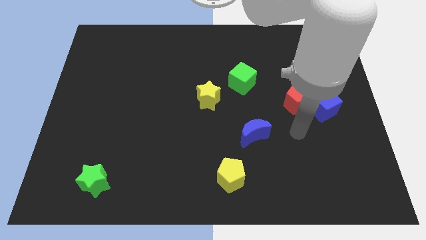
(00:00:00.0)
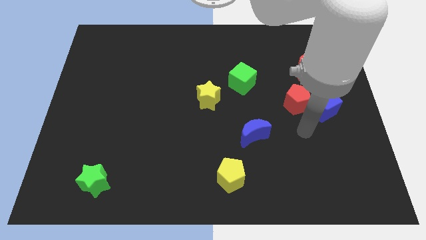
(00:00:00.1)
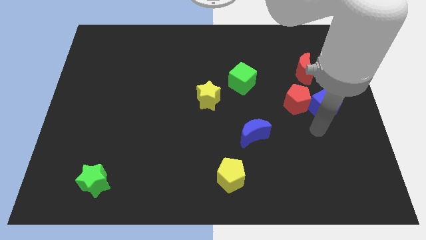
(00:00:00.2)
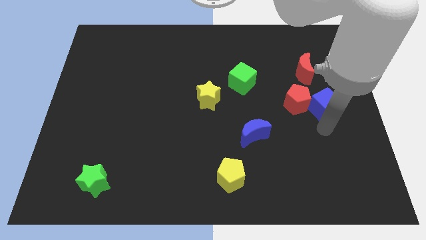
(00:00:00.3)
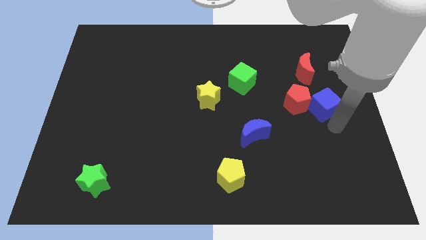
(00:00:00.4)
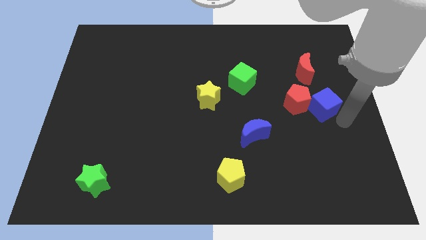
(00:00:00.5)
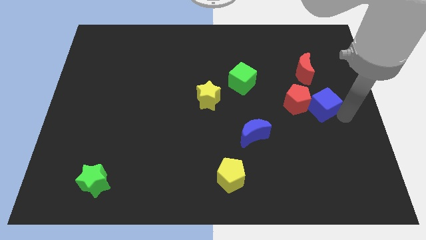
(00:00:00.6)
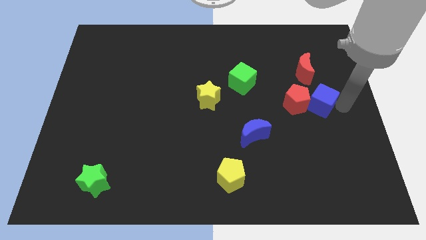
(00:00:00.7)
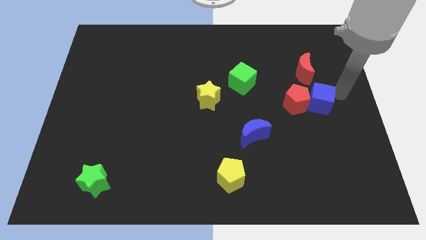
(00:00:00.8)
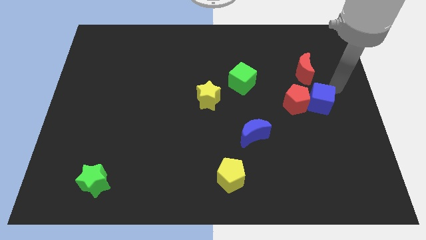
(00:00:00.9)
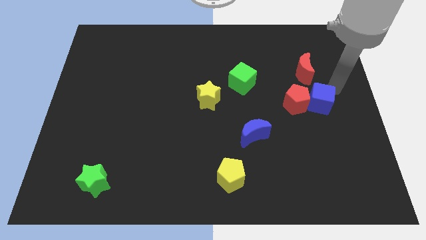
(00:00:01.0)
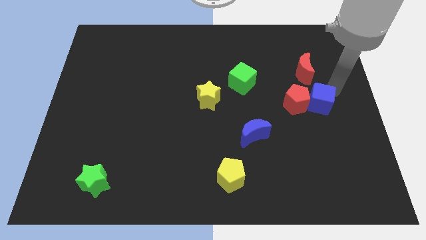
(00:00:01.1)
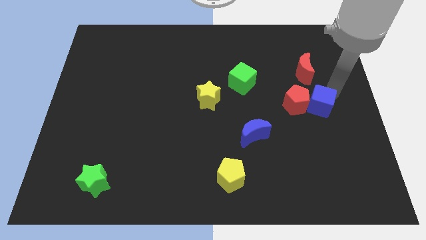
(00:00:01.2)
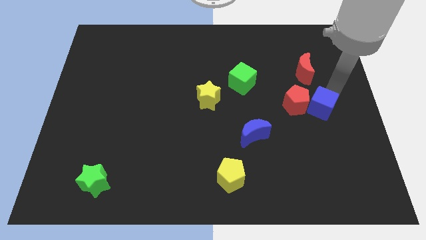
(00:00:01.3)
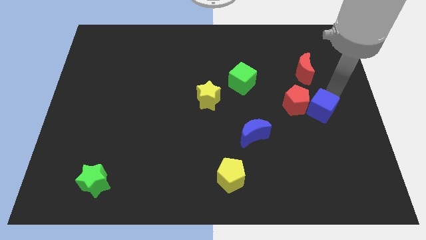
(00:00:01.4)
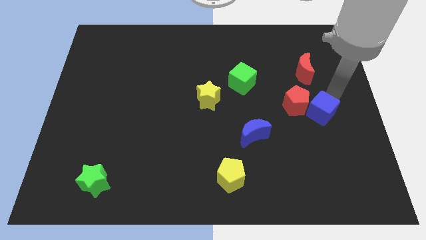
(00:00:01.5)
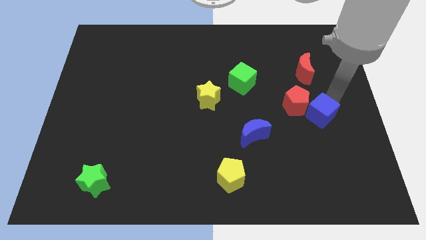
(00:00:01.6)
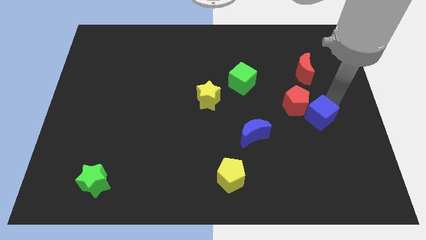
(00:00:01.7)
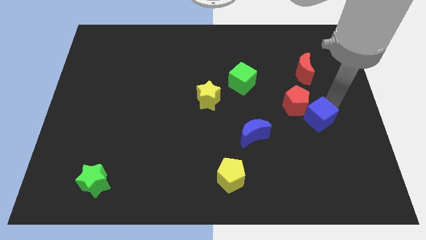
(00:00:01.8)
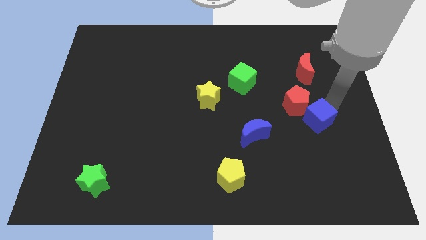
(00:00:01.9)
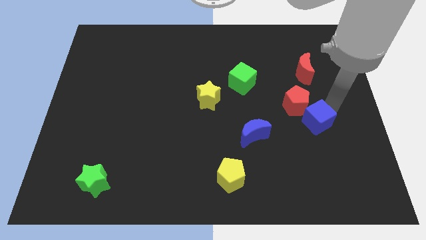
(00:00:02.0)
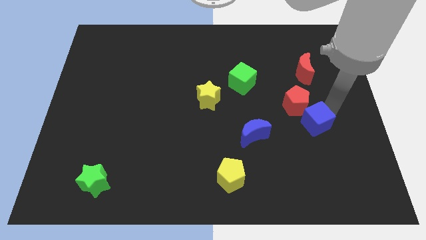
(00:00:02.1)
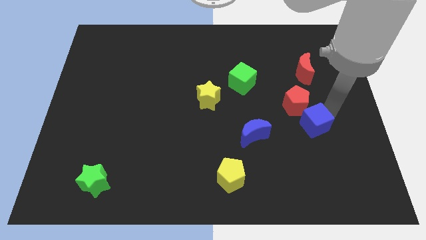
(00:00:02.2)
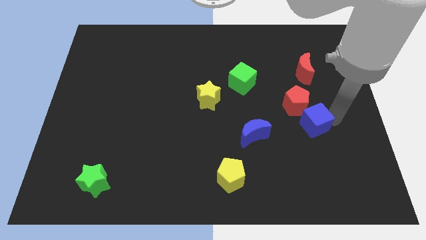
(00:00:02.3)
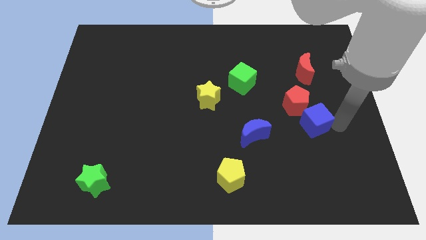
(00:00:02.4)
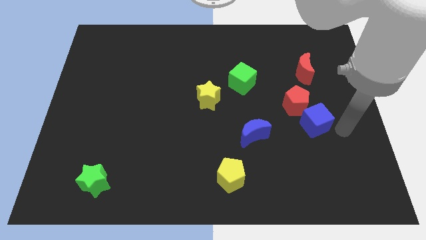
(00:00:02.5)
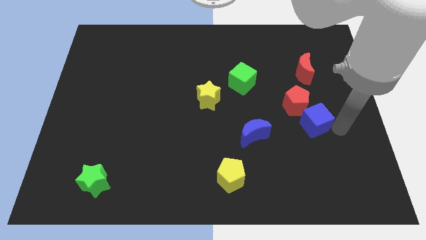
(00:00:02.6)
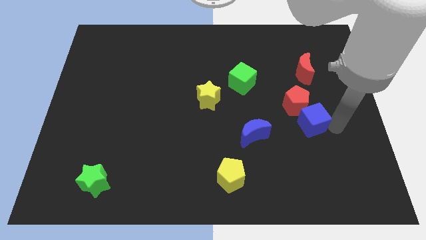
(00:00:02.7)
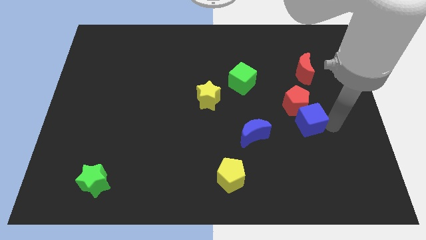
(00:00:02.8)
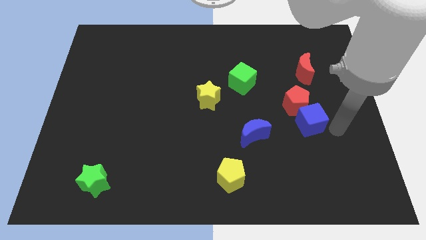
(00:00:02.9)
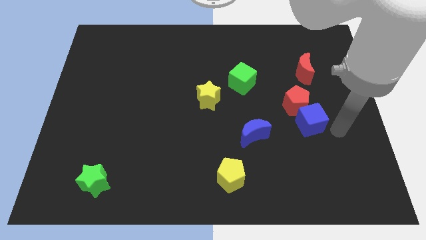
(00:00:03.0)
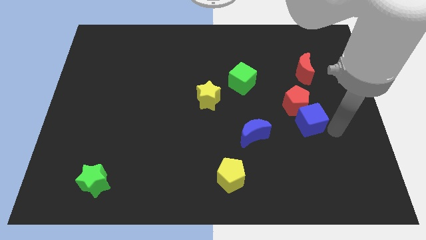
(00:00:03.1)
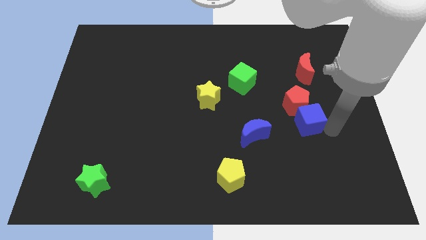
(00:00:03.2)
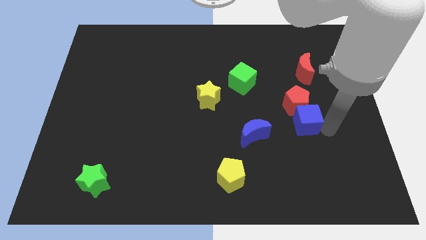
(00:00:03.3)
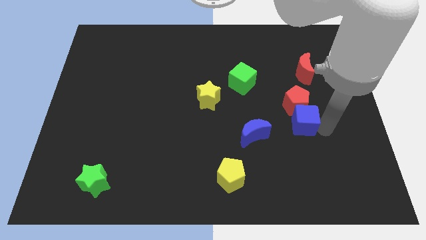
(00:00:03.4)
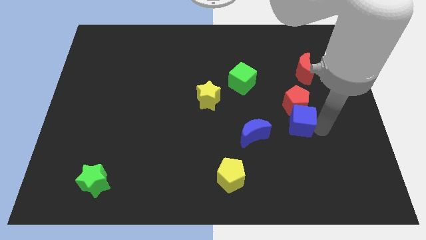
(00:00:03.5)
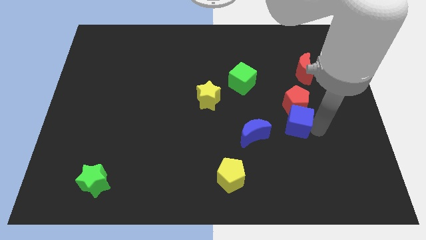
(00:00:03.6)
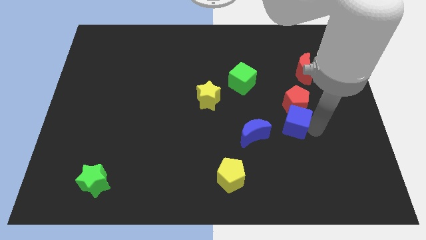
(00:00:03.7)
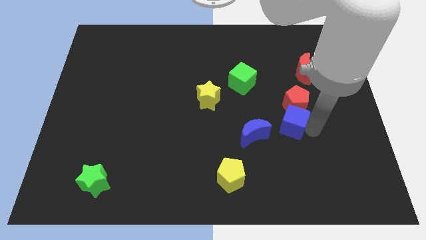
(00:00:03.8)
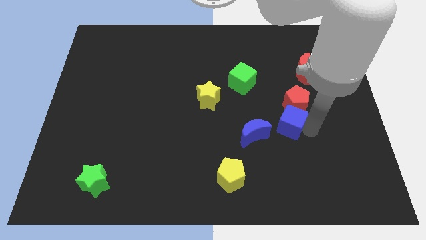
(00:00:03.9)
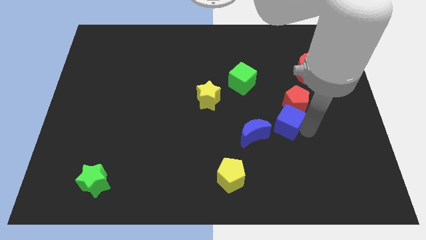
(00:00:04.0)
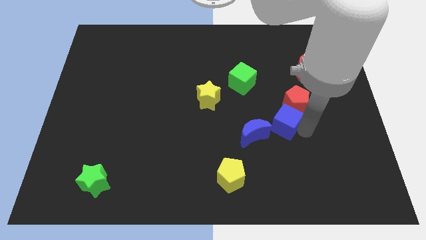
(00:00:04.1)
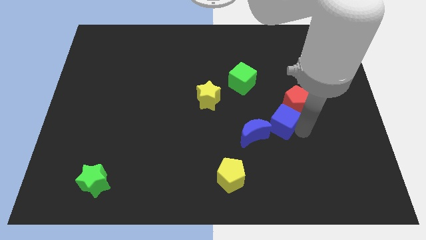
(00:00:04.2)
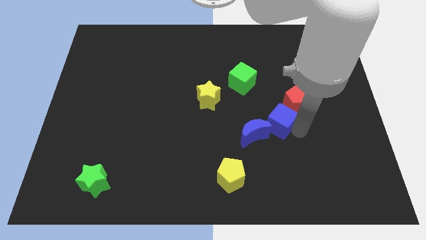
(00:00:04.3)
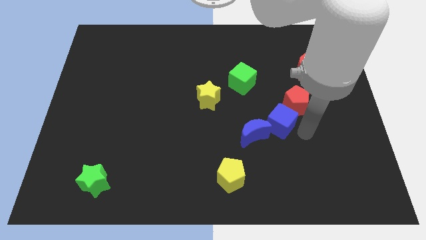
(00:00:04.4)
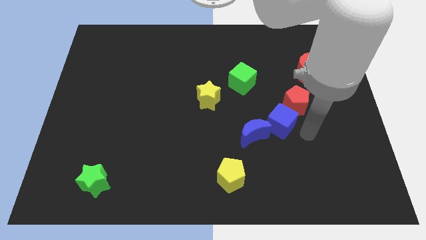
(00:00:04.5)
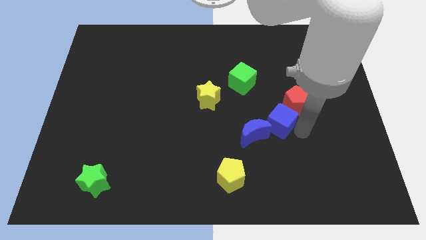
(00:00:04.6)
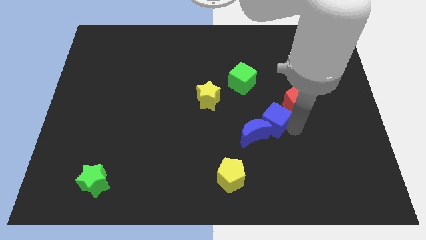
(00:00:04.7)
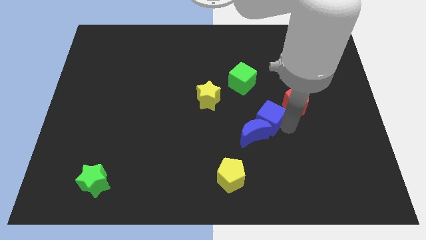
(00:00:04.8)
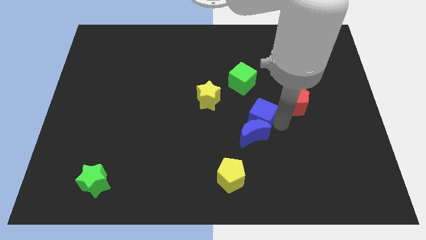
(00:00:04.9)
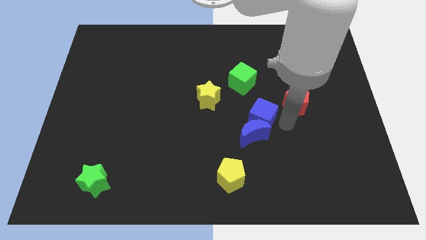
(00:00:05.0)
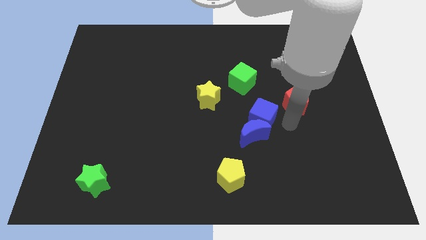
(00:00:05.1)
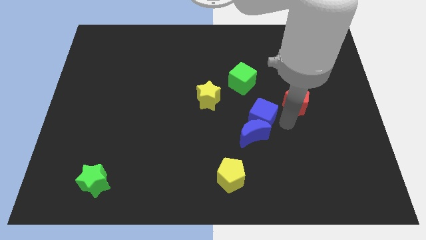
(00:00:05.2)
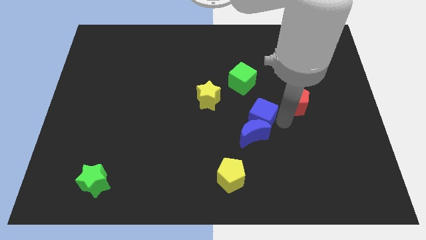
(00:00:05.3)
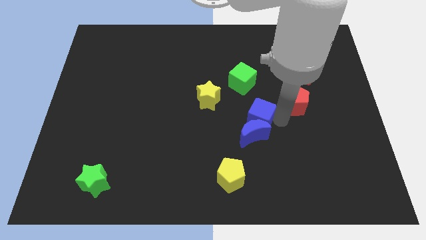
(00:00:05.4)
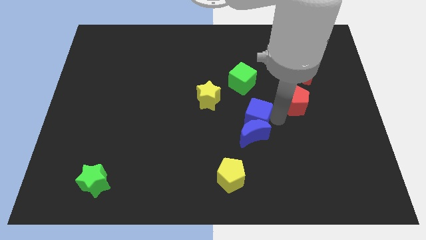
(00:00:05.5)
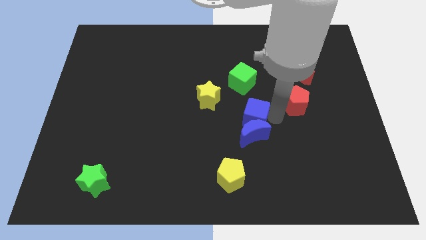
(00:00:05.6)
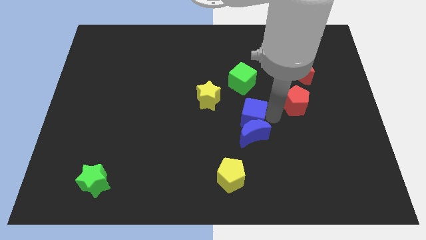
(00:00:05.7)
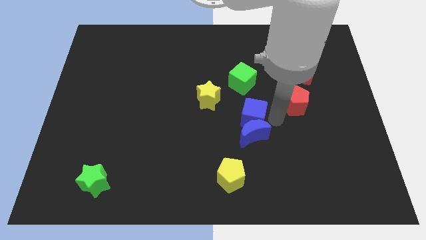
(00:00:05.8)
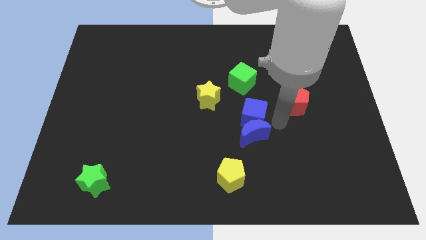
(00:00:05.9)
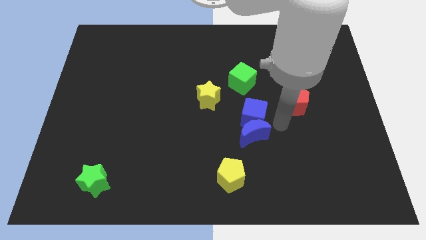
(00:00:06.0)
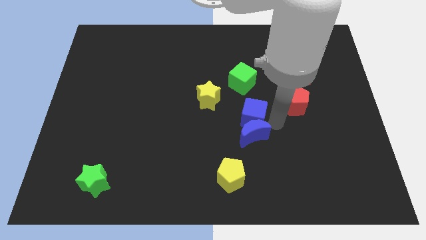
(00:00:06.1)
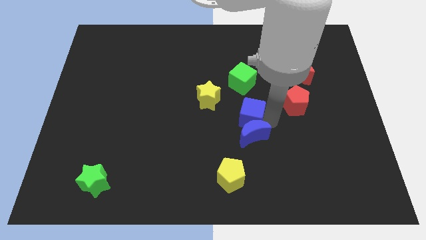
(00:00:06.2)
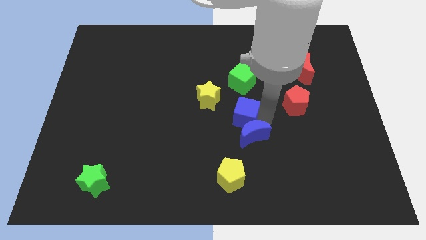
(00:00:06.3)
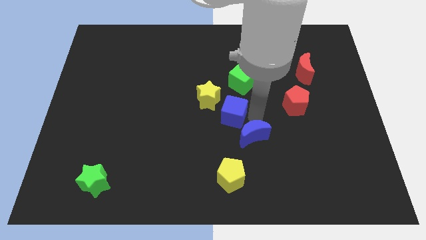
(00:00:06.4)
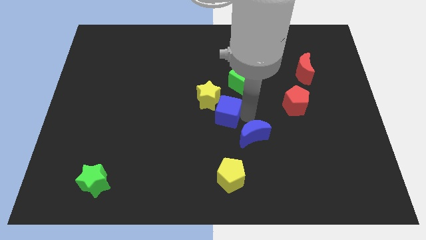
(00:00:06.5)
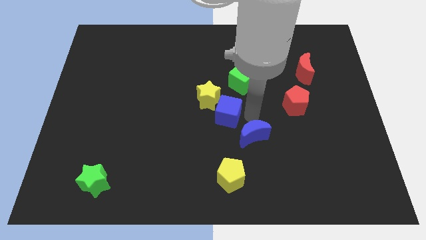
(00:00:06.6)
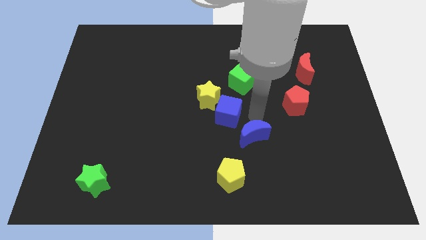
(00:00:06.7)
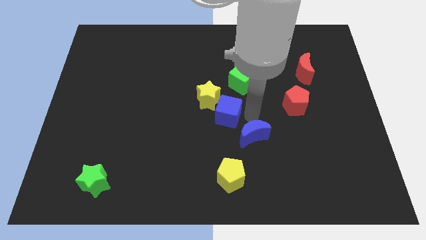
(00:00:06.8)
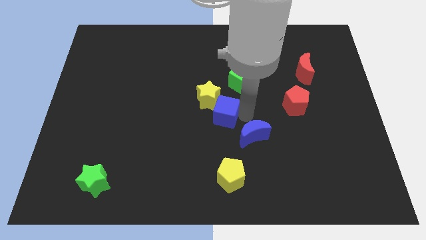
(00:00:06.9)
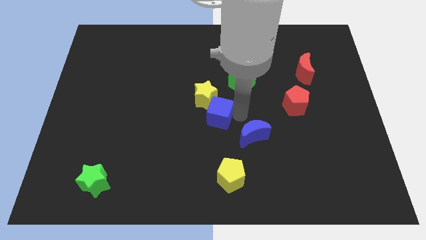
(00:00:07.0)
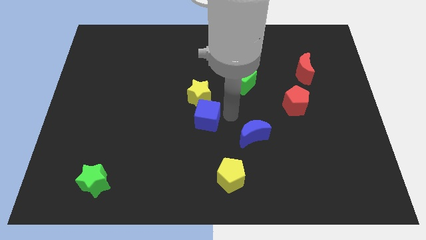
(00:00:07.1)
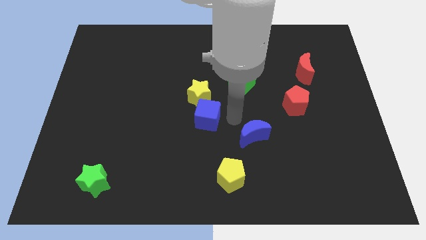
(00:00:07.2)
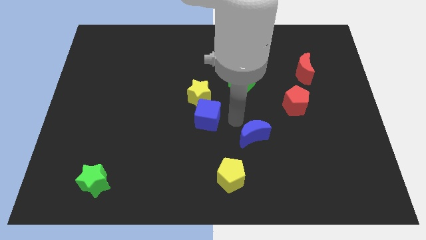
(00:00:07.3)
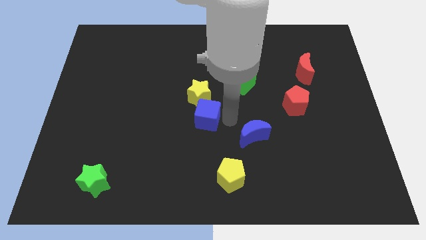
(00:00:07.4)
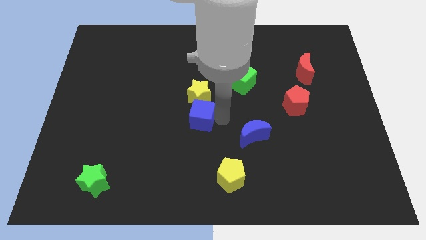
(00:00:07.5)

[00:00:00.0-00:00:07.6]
push the blue cube to the bottom left side of the yellow star

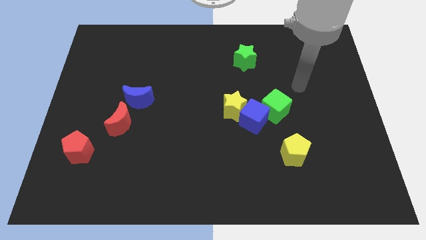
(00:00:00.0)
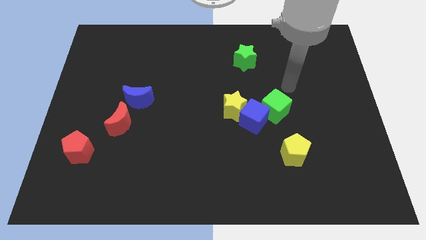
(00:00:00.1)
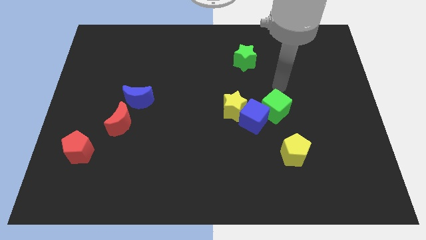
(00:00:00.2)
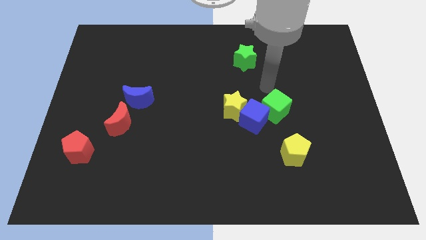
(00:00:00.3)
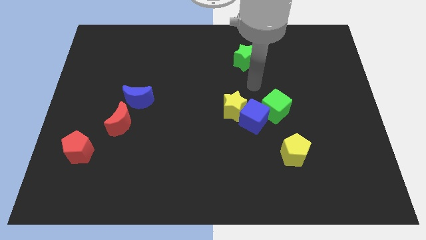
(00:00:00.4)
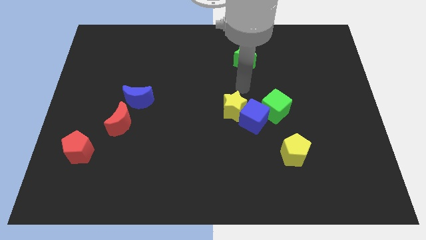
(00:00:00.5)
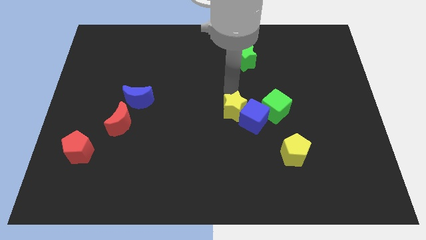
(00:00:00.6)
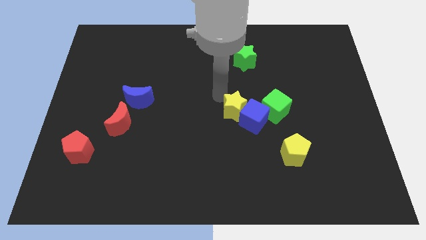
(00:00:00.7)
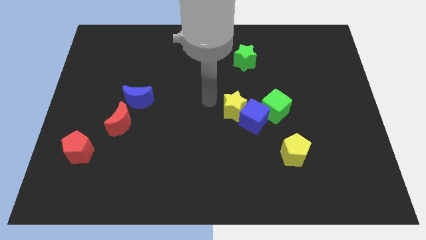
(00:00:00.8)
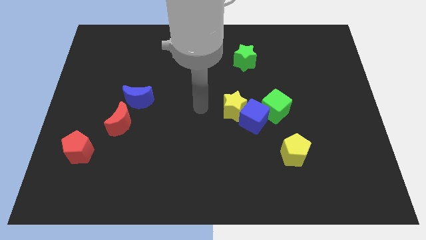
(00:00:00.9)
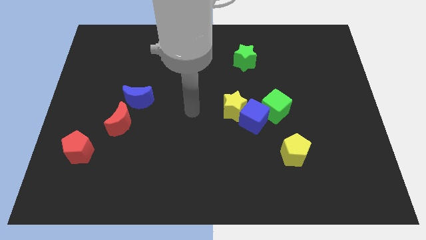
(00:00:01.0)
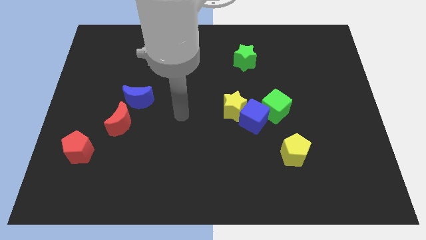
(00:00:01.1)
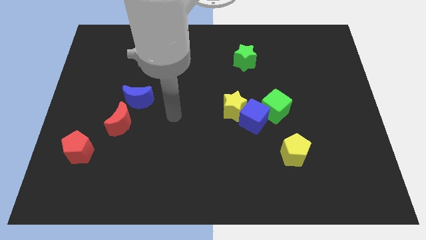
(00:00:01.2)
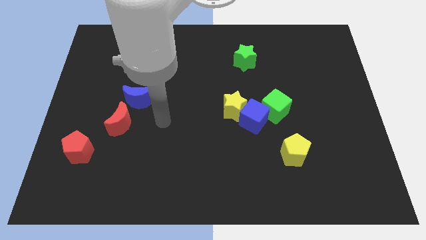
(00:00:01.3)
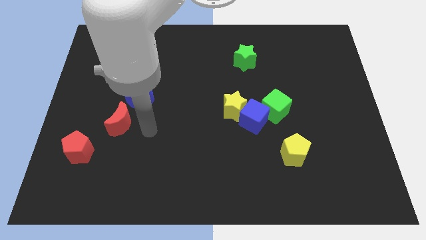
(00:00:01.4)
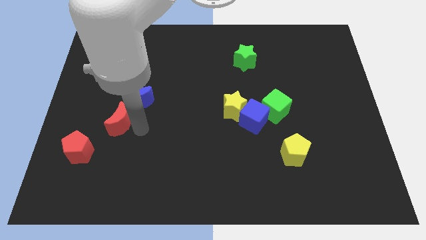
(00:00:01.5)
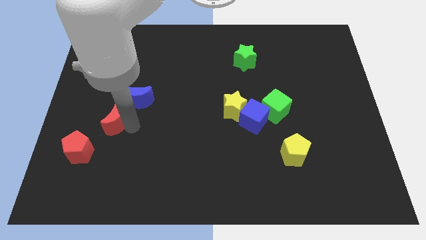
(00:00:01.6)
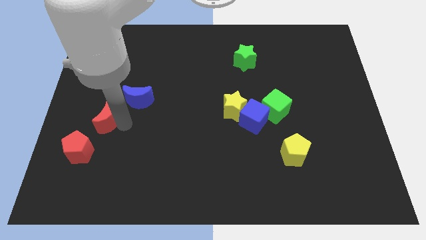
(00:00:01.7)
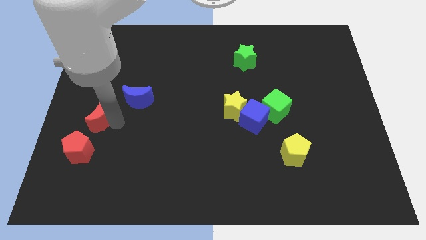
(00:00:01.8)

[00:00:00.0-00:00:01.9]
move the red moon to the top of the red pentagon
